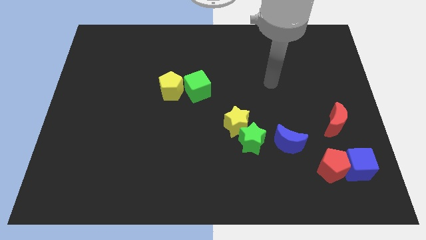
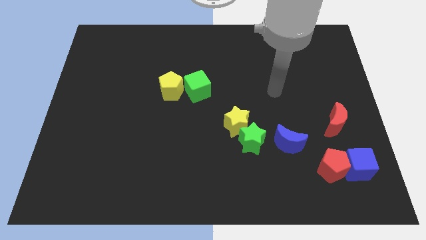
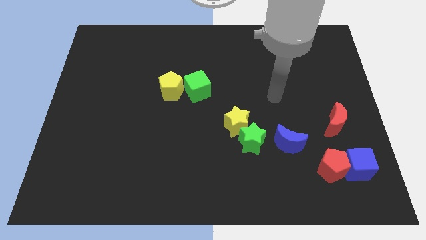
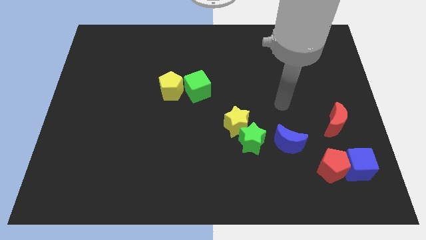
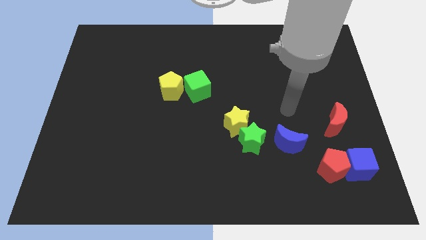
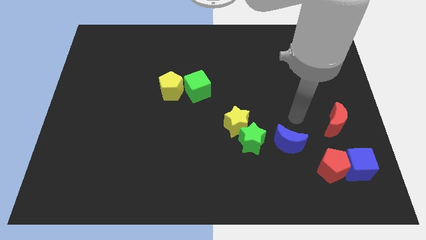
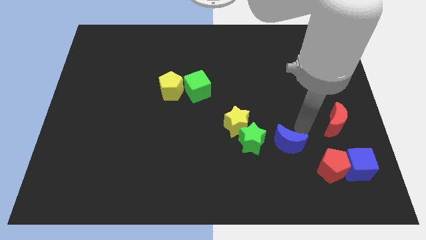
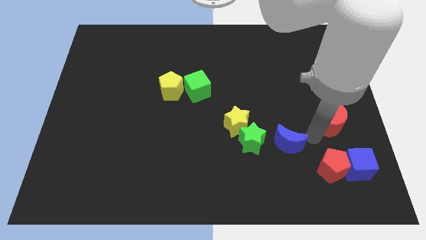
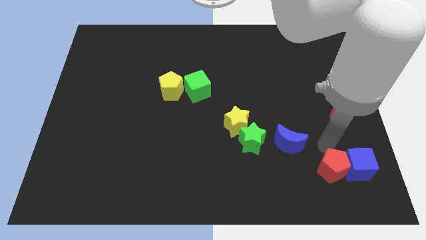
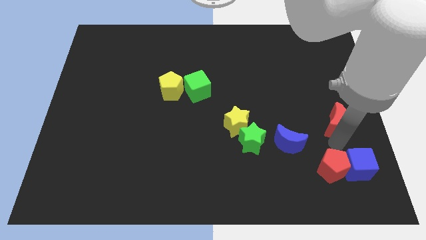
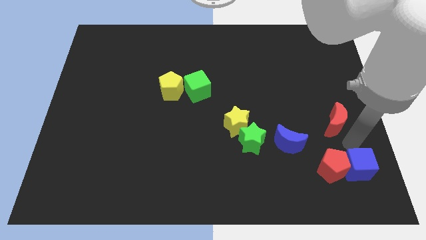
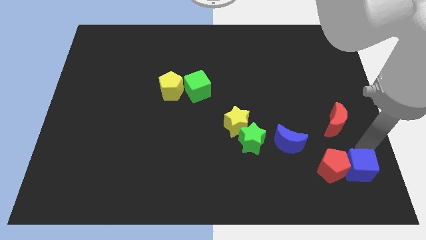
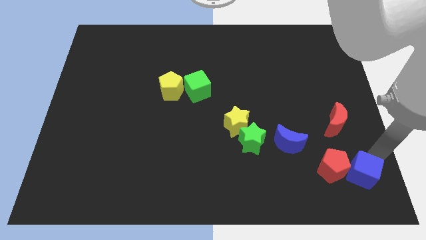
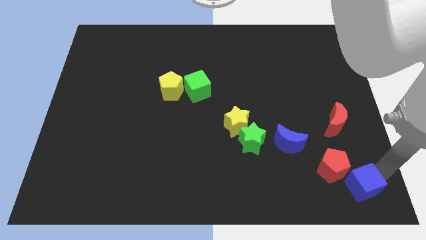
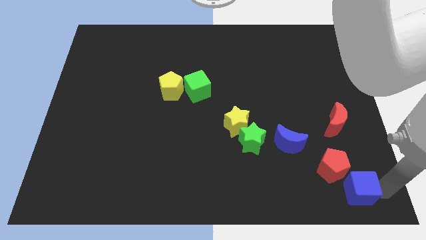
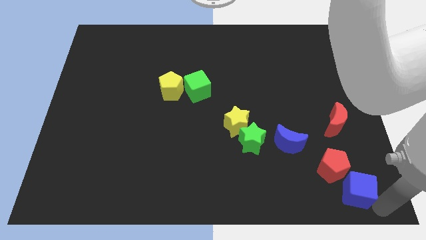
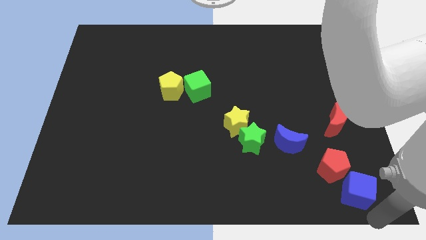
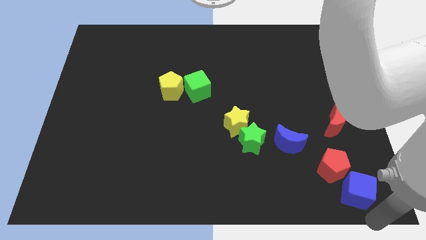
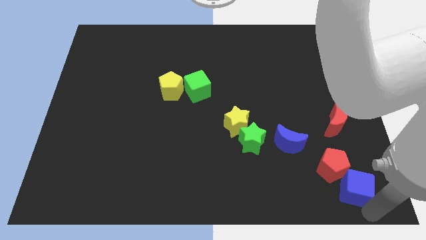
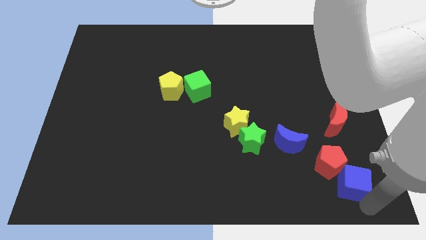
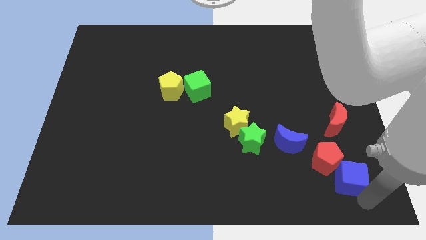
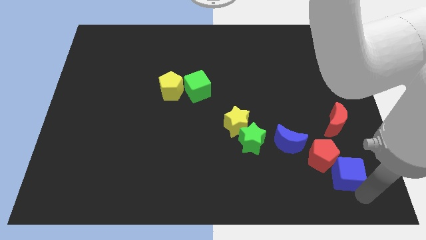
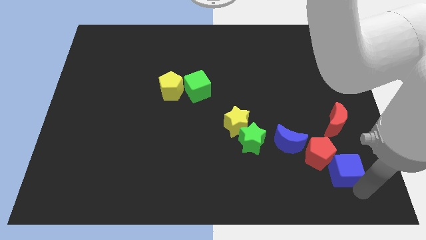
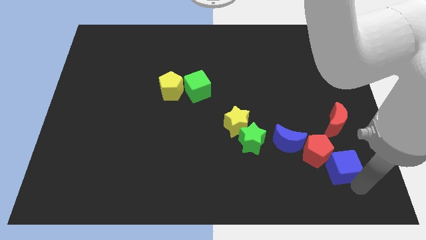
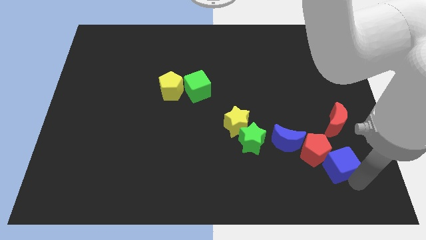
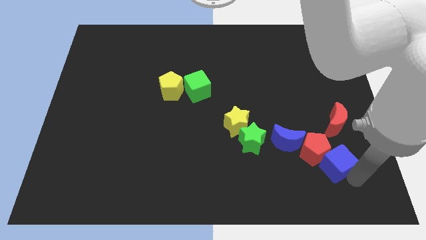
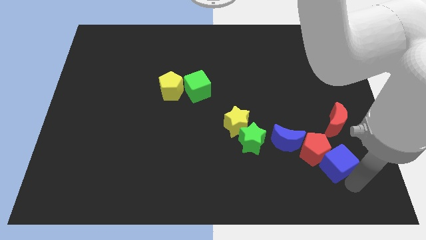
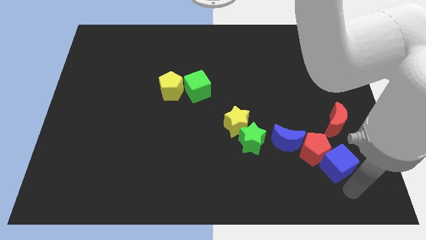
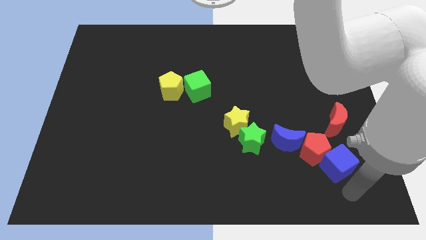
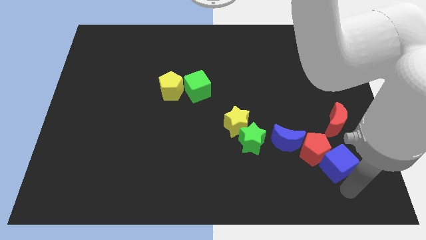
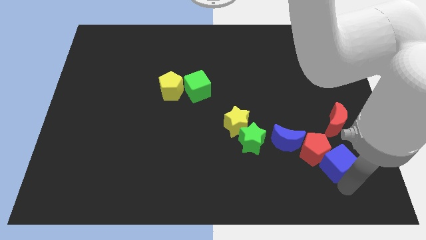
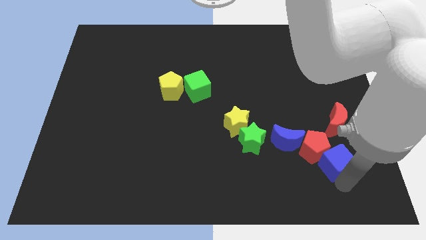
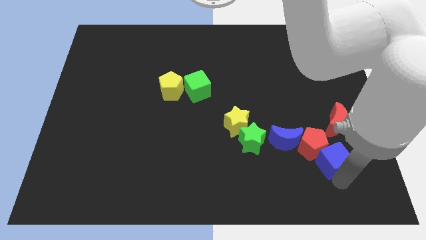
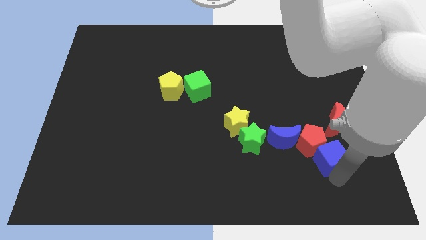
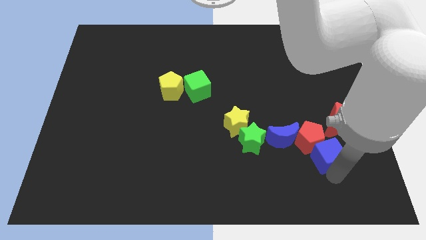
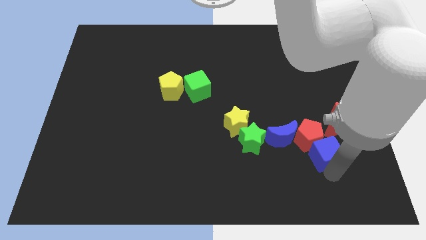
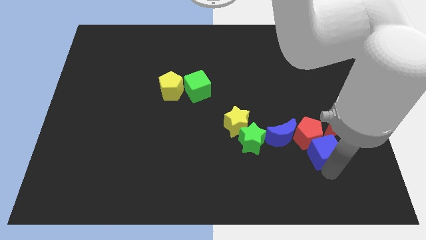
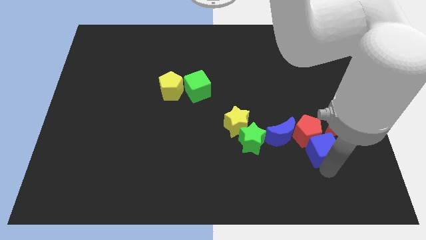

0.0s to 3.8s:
push the blue cube a little bit up and then left

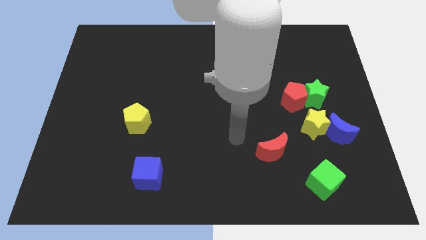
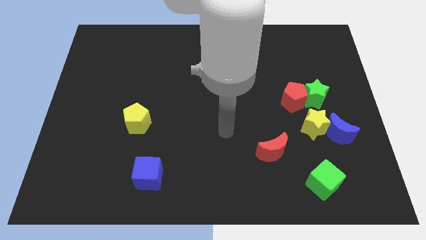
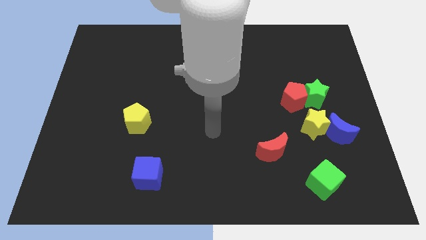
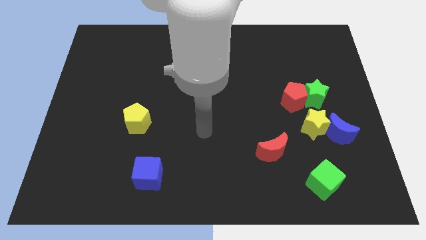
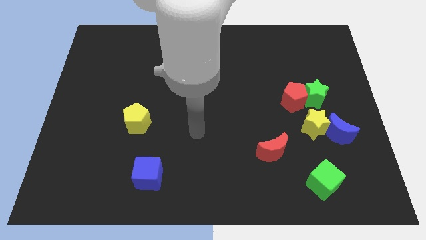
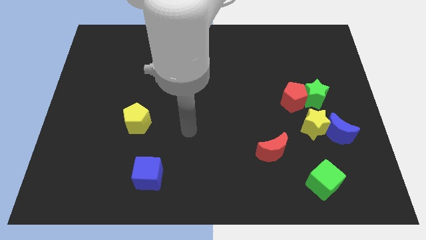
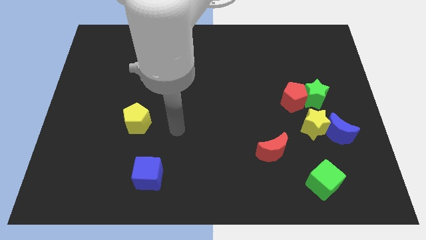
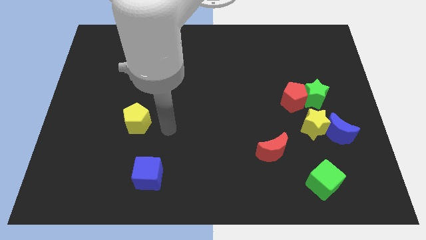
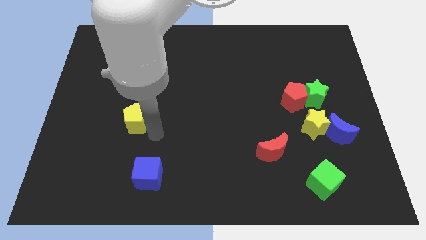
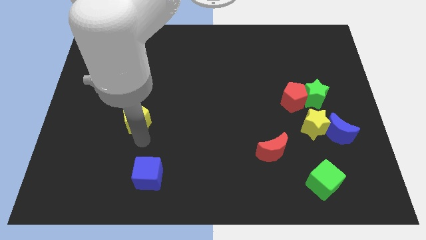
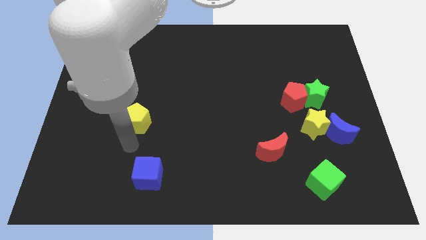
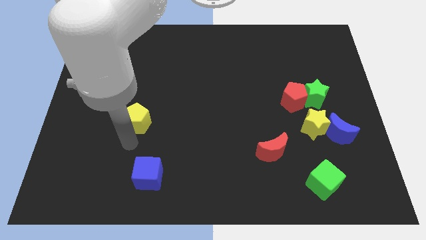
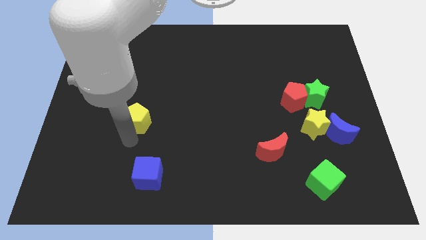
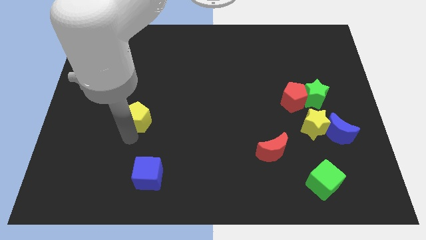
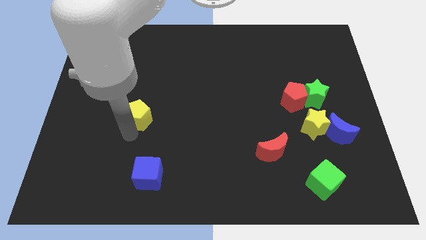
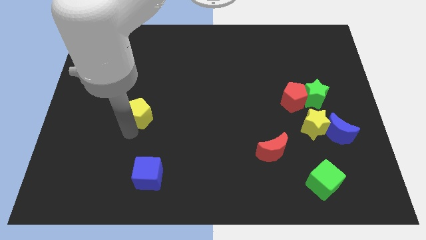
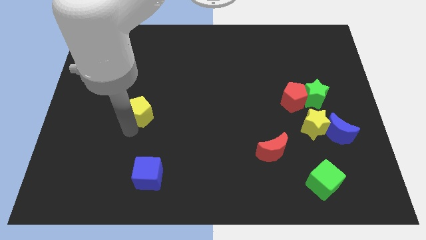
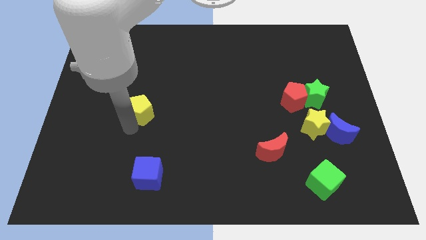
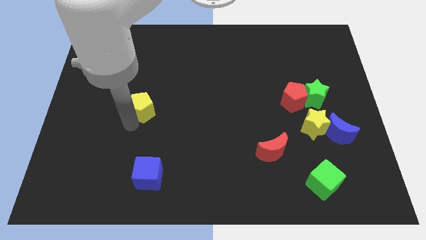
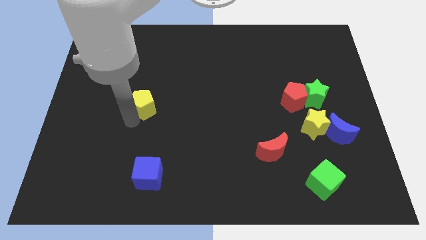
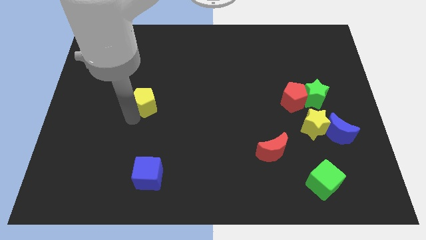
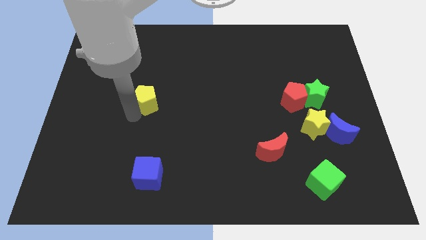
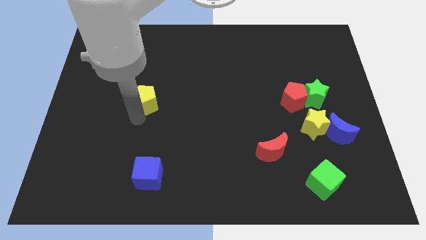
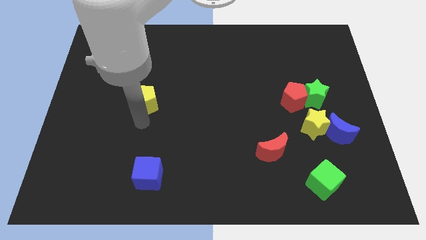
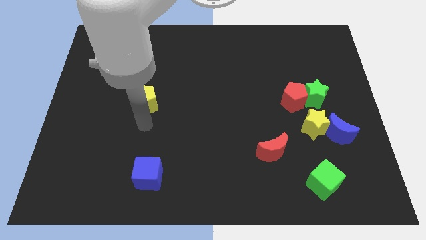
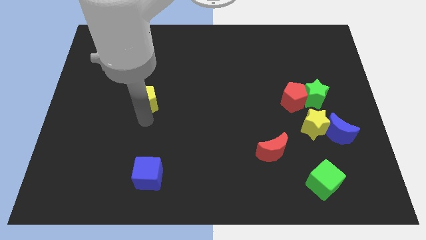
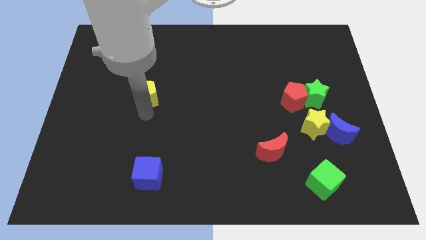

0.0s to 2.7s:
slightly push the yellow pentagon up

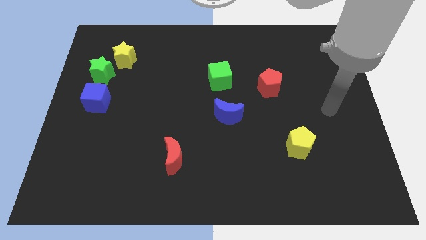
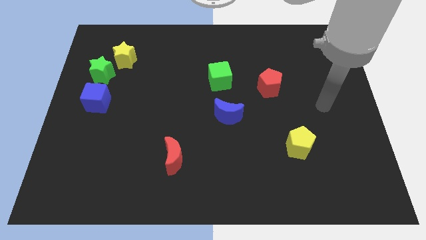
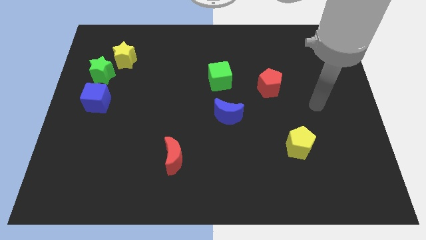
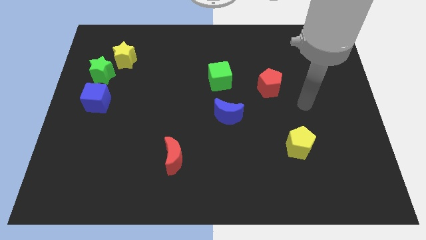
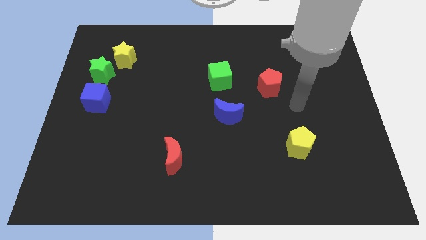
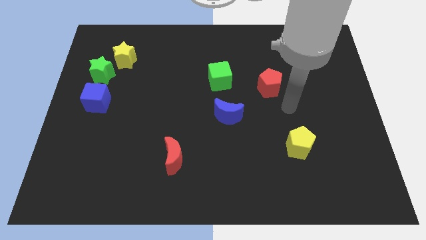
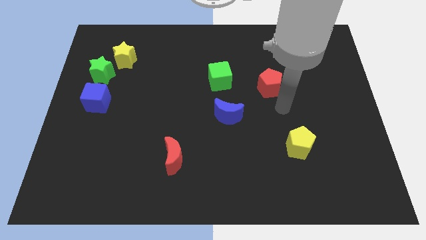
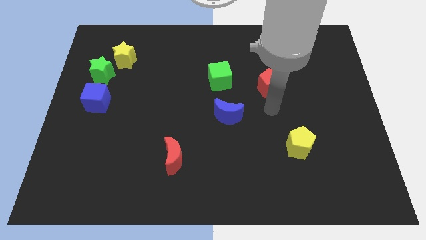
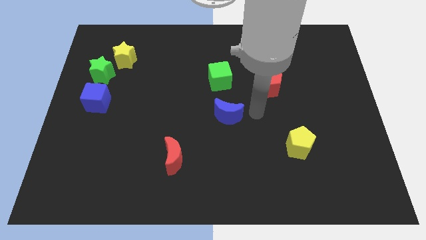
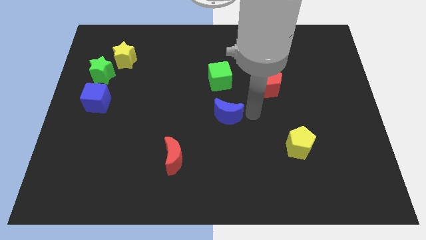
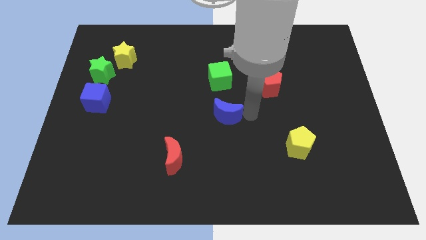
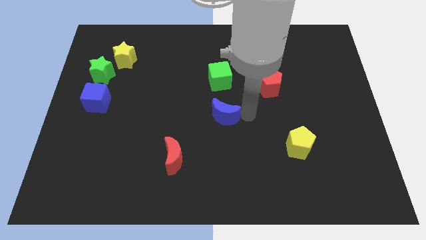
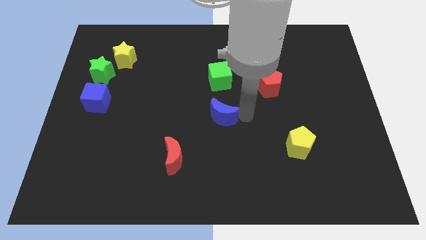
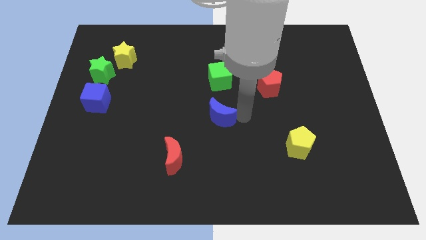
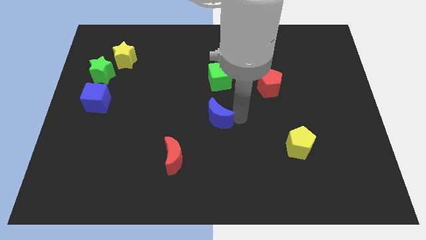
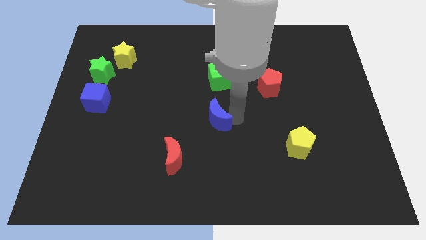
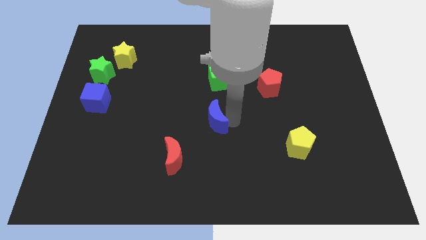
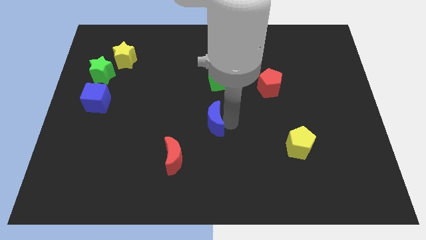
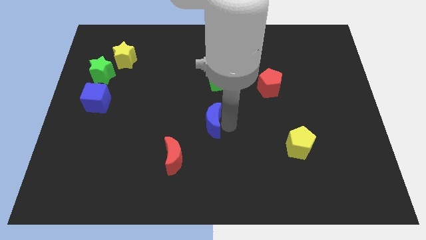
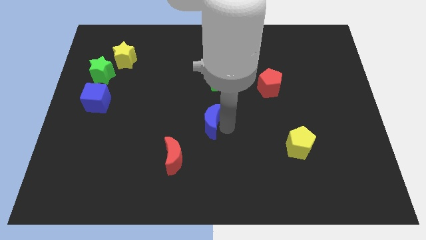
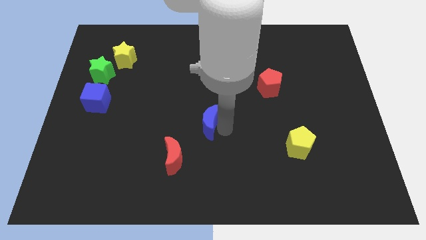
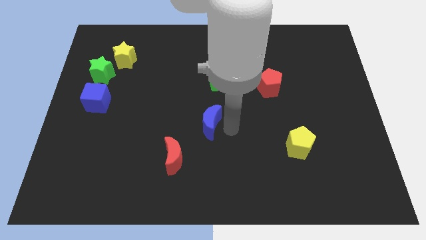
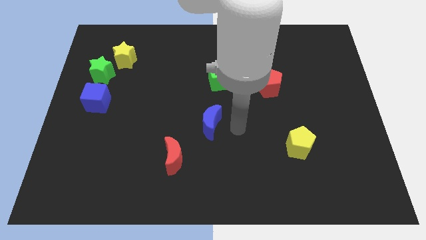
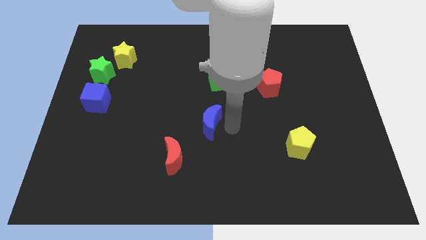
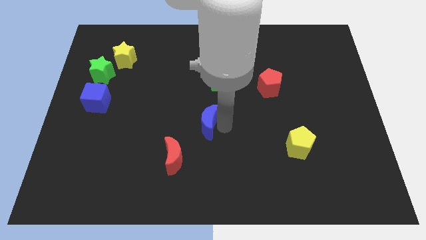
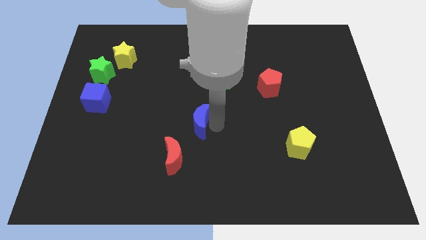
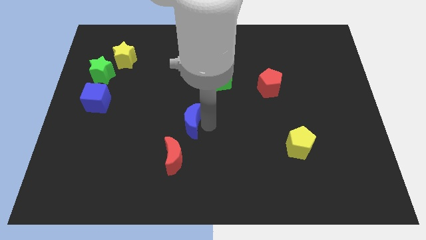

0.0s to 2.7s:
push the blue moon left a little bit
